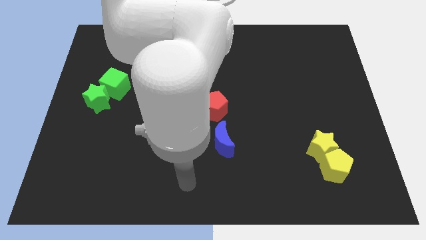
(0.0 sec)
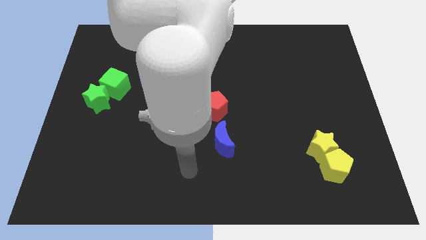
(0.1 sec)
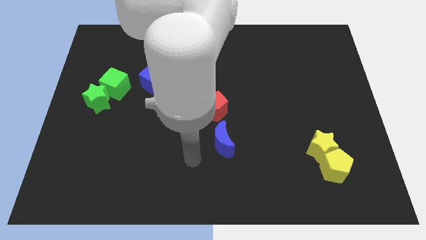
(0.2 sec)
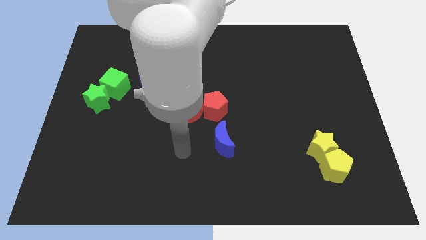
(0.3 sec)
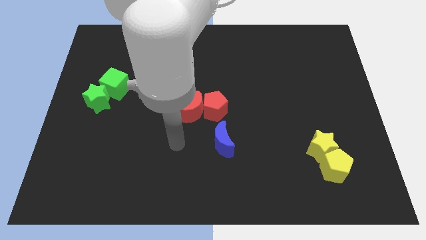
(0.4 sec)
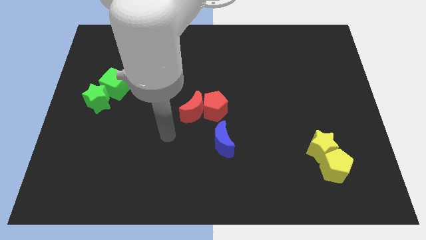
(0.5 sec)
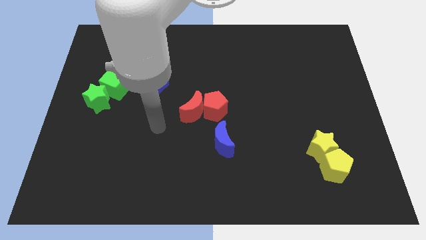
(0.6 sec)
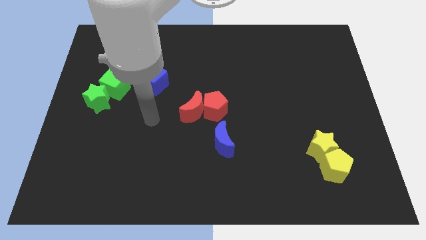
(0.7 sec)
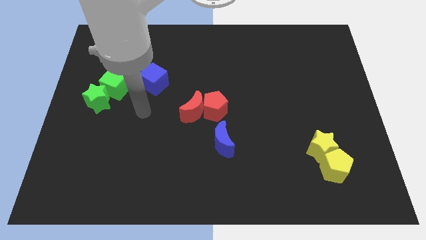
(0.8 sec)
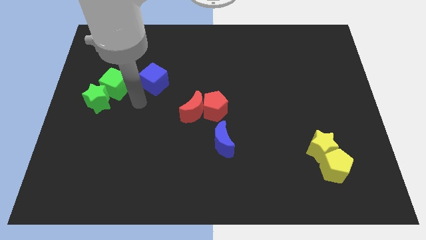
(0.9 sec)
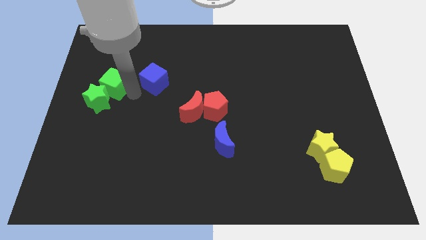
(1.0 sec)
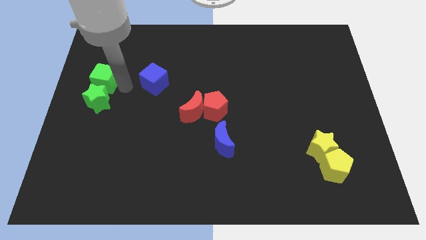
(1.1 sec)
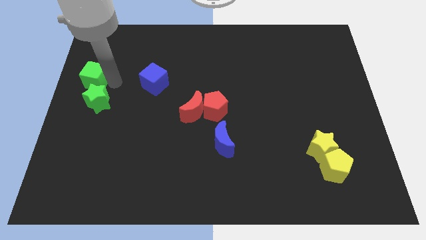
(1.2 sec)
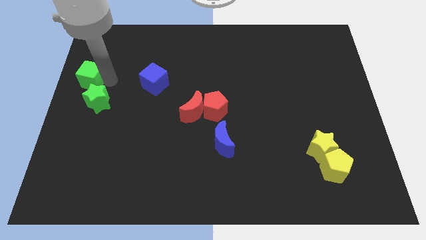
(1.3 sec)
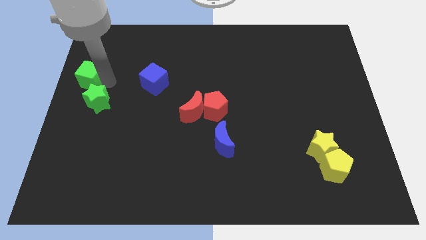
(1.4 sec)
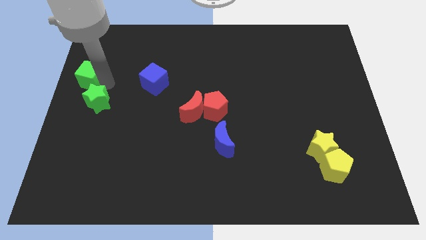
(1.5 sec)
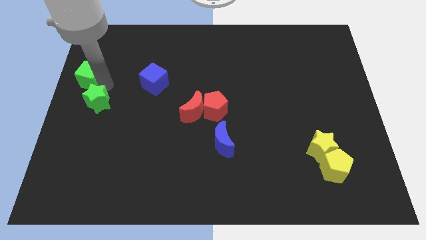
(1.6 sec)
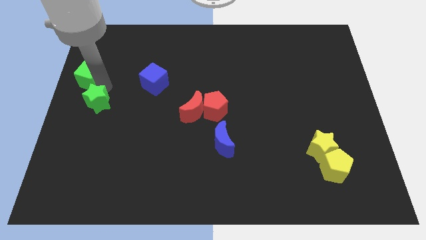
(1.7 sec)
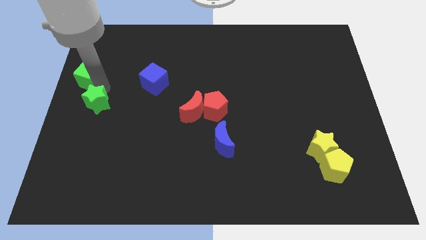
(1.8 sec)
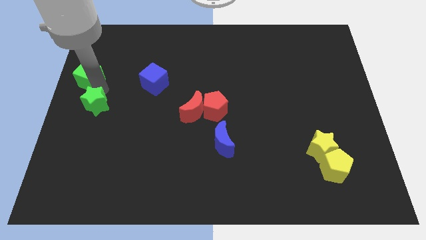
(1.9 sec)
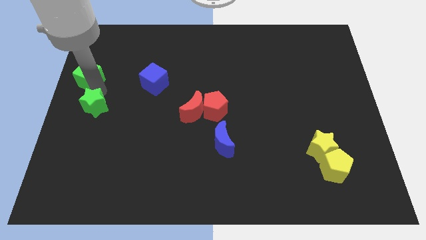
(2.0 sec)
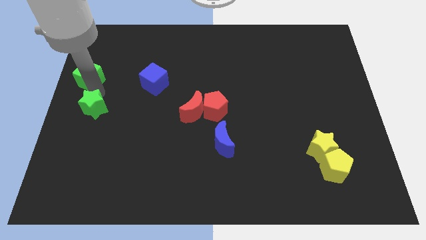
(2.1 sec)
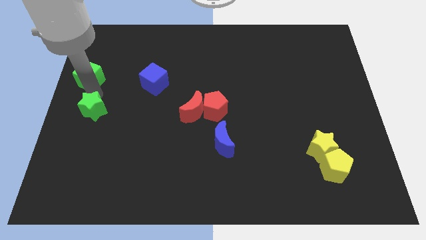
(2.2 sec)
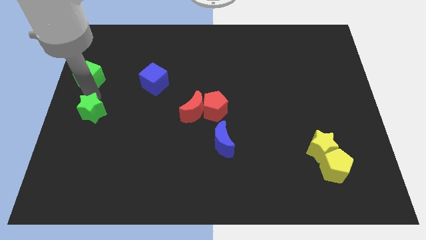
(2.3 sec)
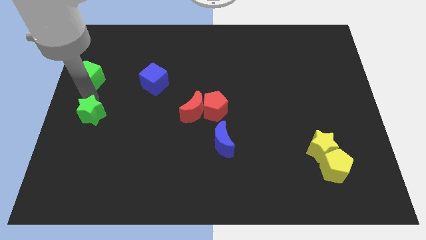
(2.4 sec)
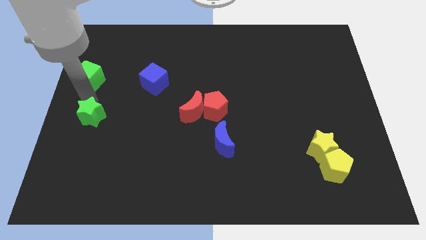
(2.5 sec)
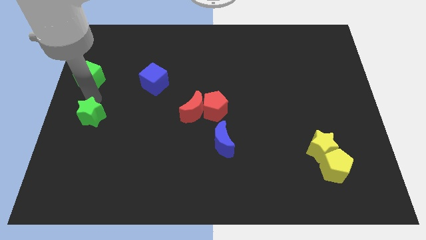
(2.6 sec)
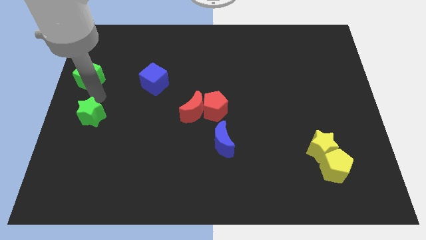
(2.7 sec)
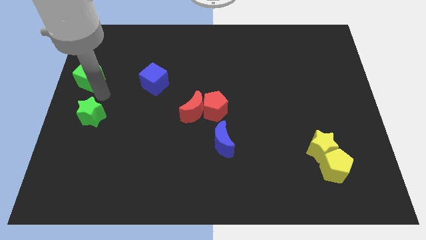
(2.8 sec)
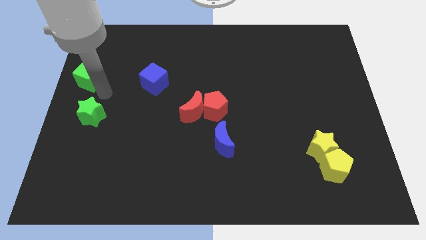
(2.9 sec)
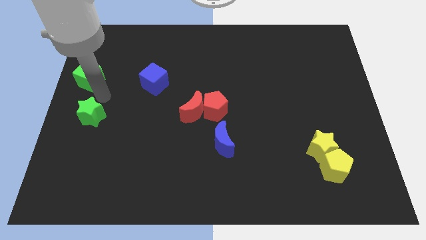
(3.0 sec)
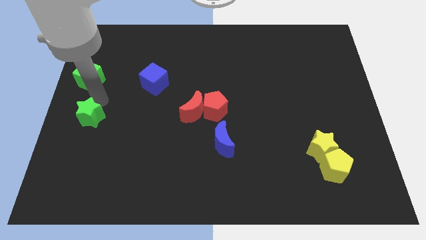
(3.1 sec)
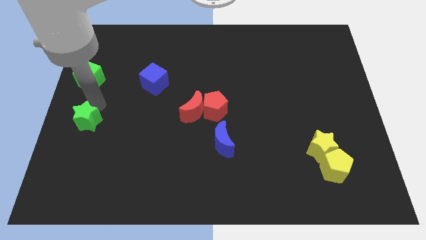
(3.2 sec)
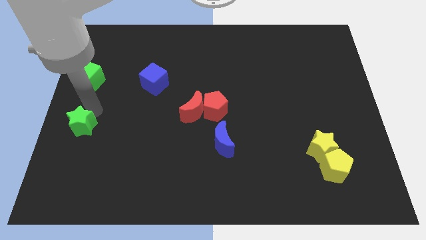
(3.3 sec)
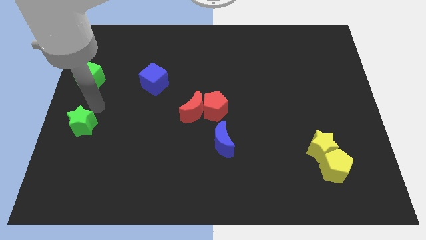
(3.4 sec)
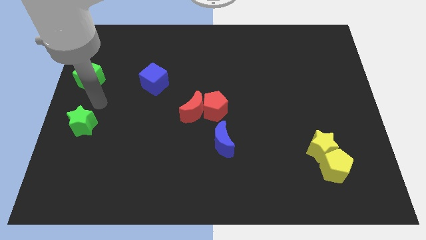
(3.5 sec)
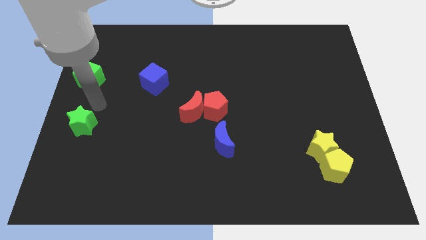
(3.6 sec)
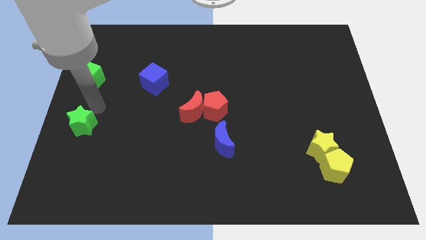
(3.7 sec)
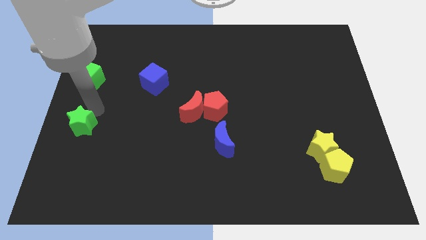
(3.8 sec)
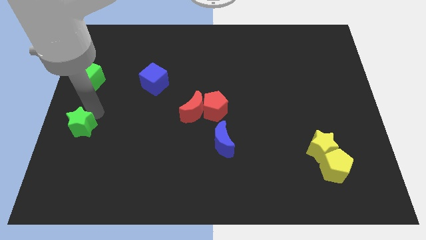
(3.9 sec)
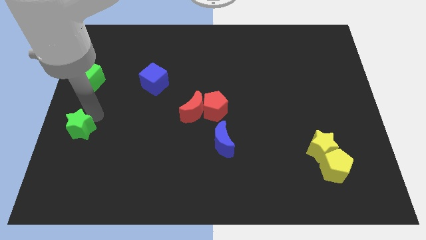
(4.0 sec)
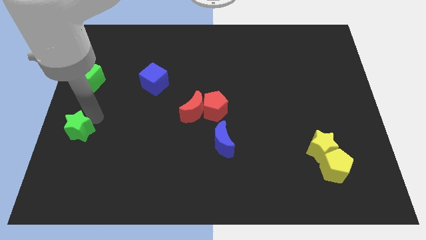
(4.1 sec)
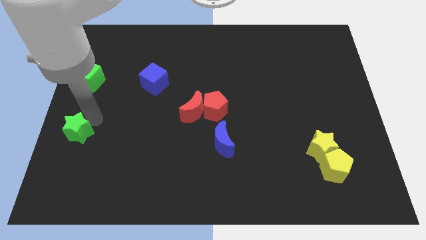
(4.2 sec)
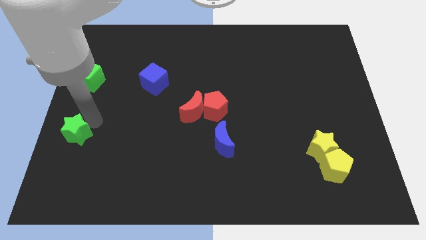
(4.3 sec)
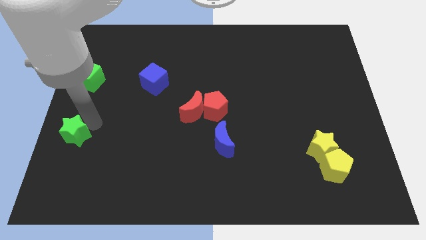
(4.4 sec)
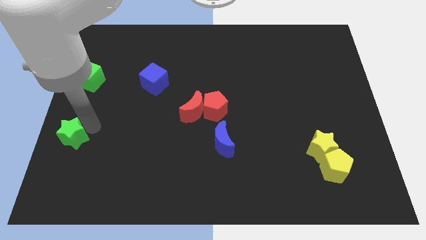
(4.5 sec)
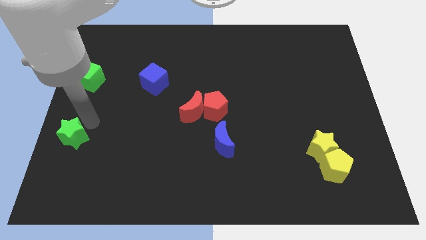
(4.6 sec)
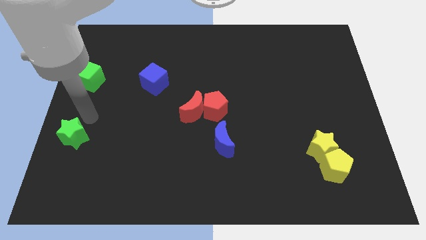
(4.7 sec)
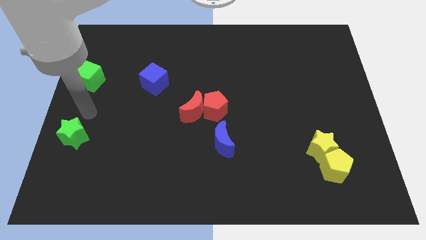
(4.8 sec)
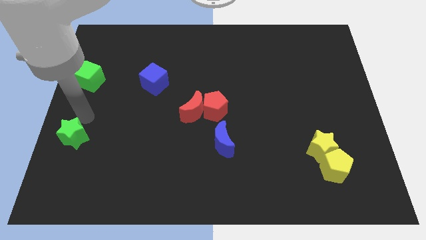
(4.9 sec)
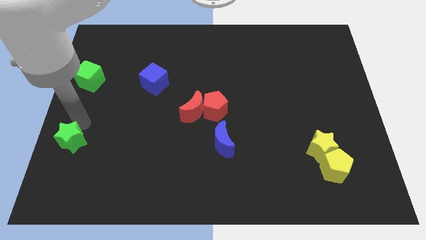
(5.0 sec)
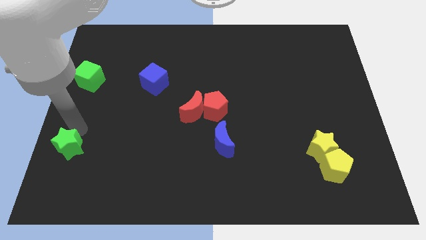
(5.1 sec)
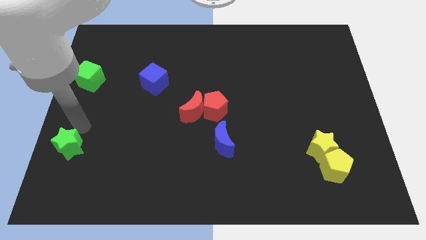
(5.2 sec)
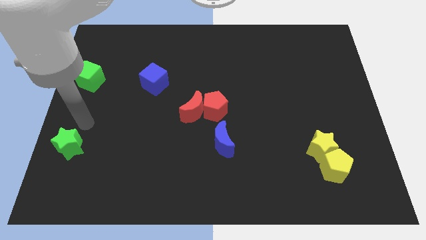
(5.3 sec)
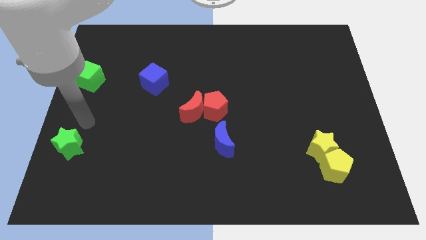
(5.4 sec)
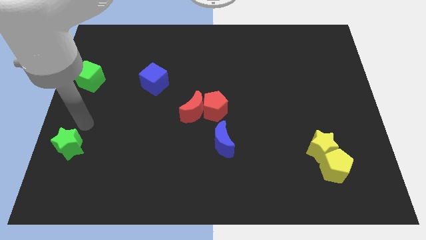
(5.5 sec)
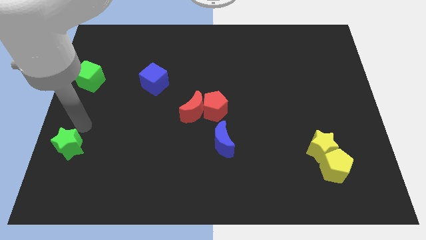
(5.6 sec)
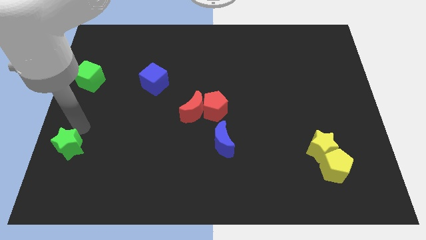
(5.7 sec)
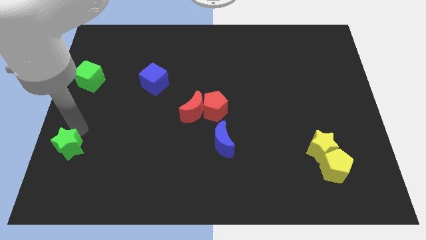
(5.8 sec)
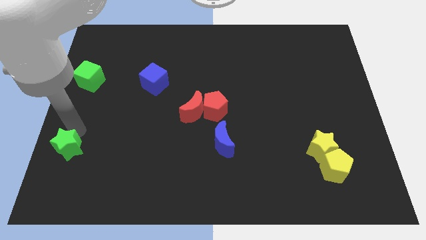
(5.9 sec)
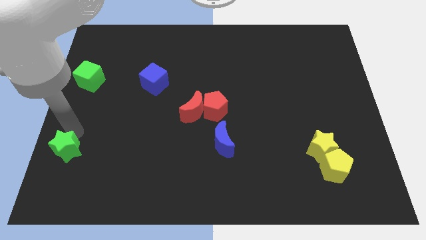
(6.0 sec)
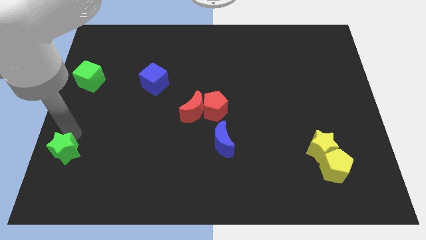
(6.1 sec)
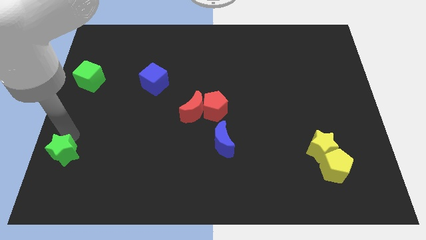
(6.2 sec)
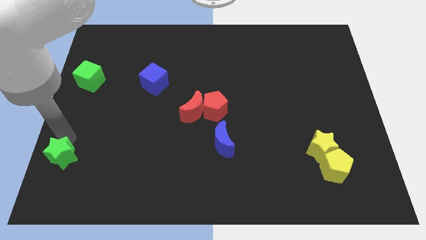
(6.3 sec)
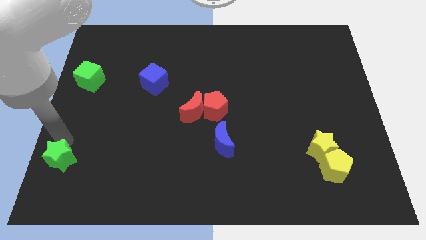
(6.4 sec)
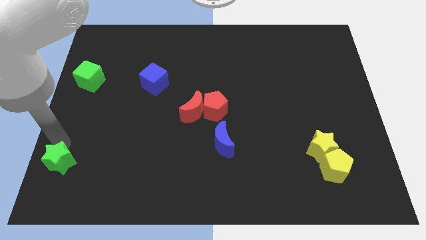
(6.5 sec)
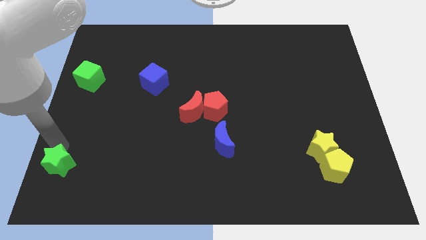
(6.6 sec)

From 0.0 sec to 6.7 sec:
put the green star to the bottom left
